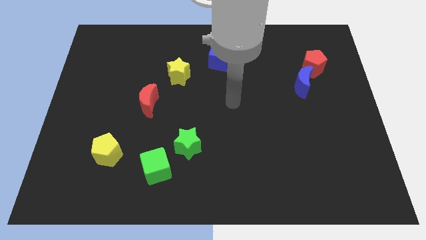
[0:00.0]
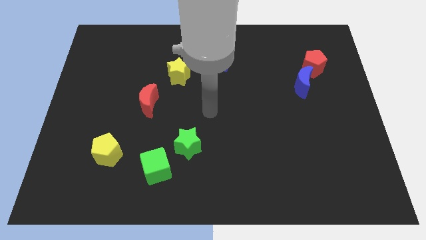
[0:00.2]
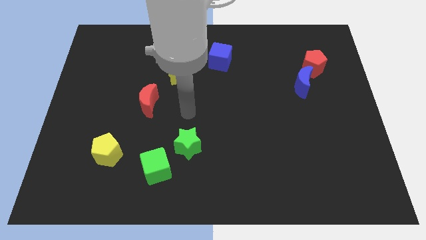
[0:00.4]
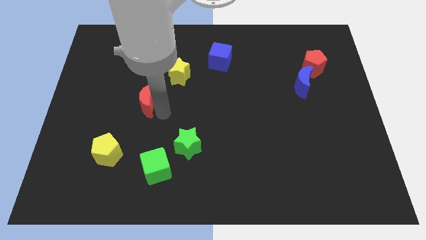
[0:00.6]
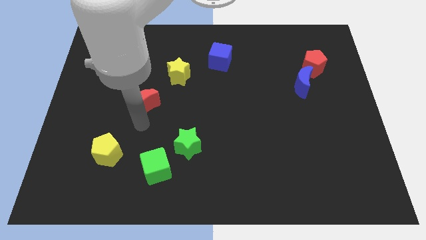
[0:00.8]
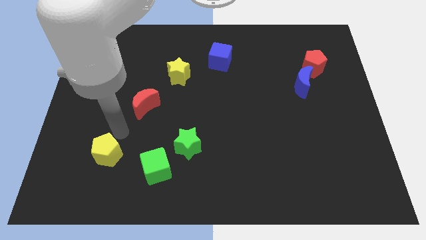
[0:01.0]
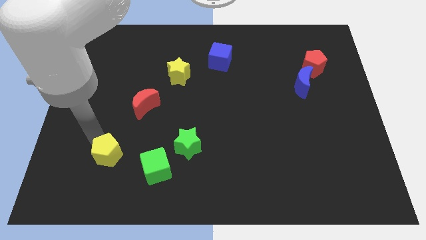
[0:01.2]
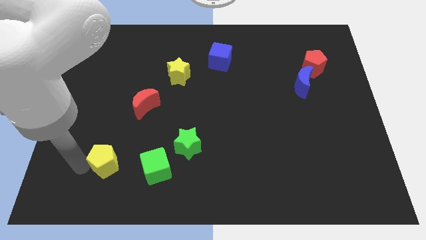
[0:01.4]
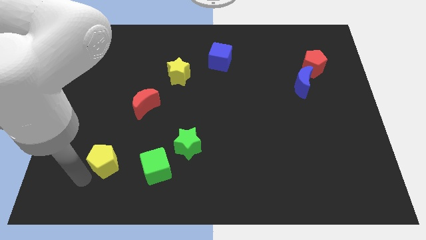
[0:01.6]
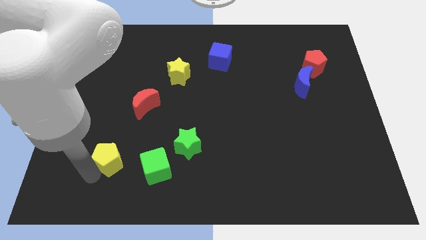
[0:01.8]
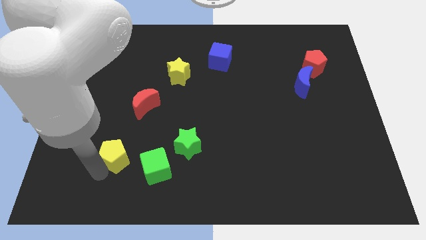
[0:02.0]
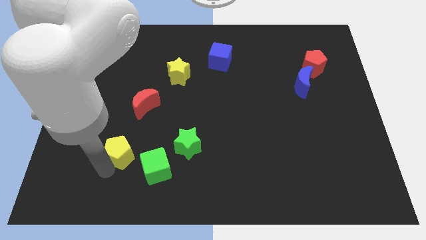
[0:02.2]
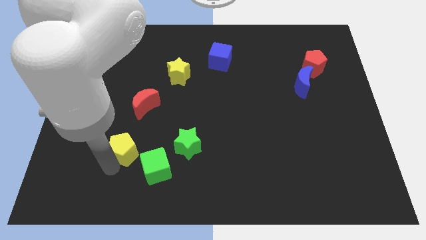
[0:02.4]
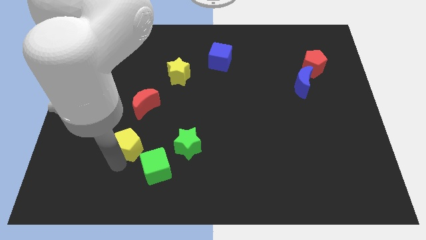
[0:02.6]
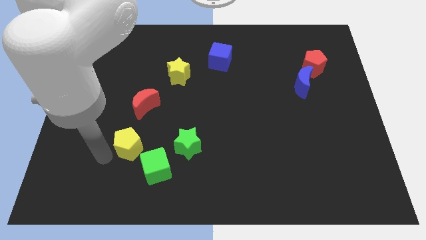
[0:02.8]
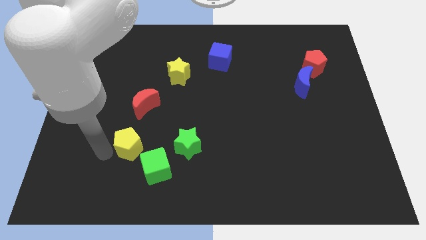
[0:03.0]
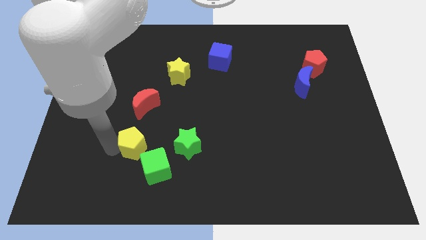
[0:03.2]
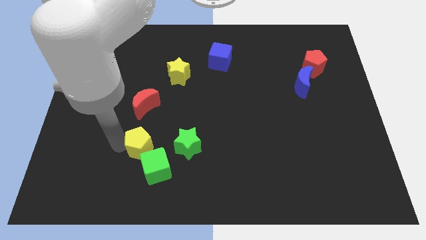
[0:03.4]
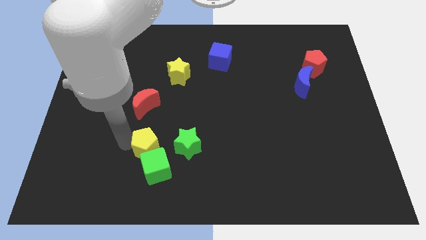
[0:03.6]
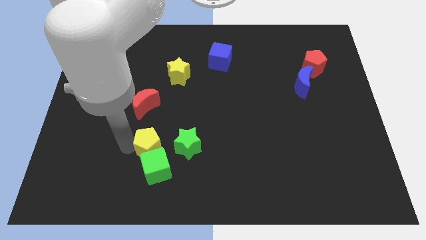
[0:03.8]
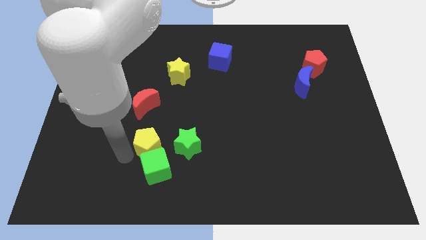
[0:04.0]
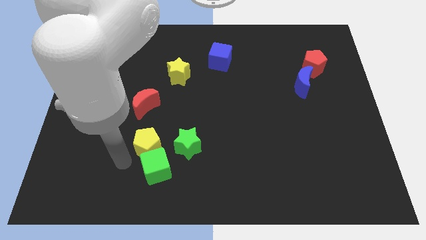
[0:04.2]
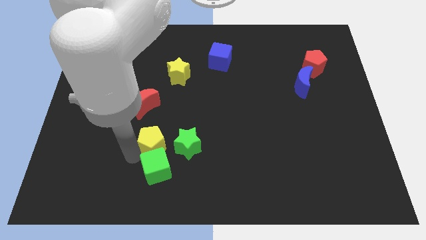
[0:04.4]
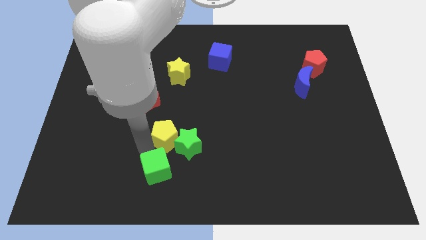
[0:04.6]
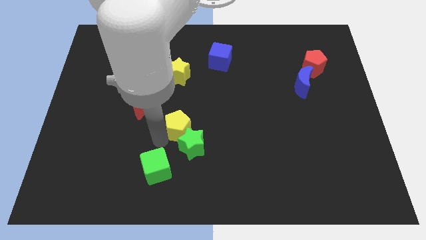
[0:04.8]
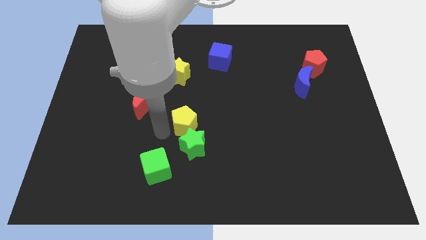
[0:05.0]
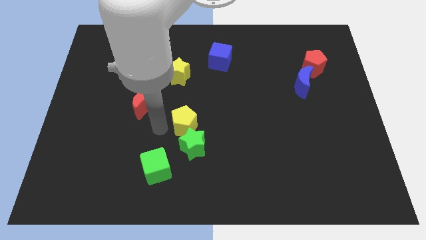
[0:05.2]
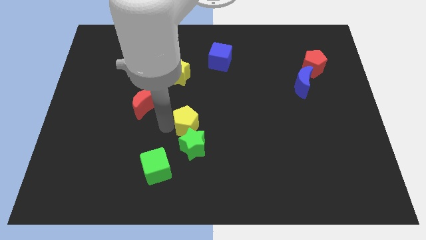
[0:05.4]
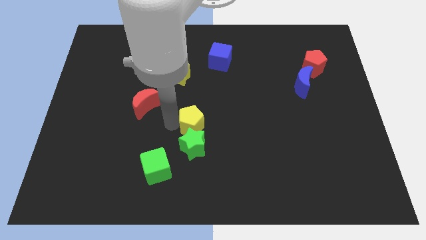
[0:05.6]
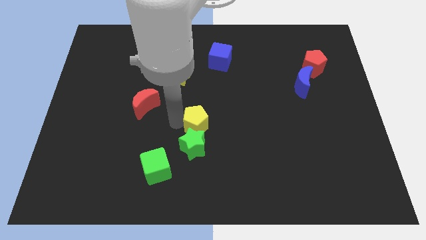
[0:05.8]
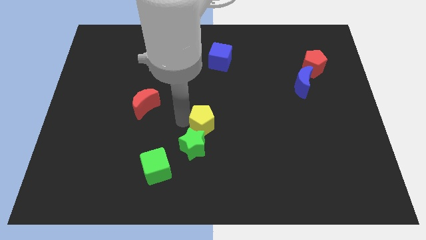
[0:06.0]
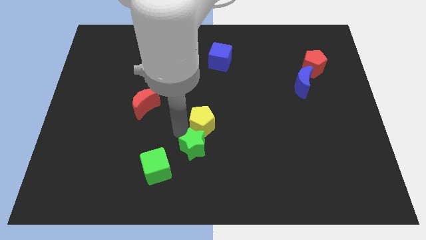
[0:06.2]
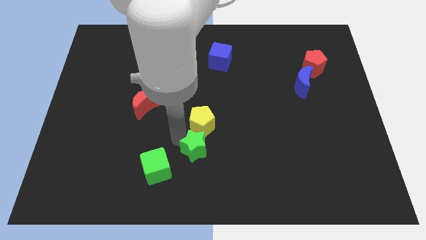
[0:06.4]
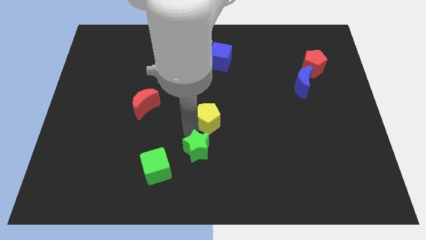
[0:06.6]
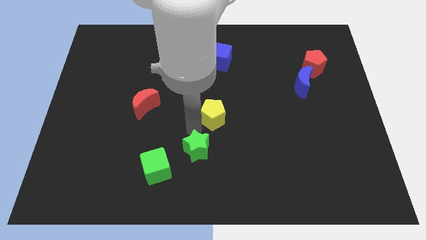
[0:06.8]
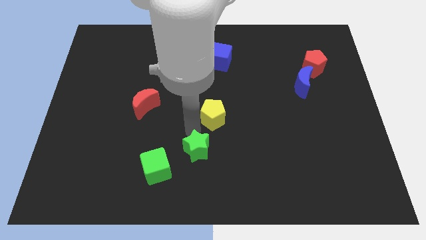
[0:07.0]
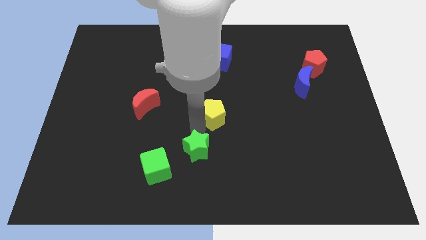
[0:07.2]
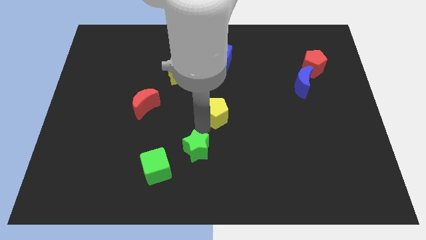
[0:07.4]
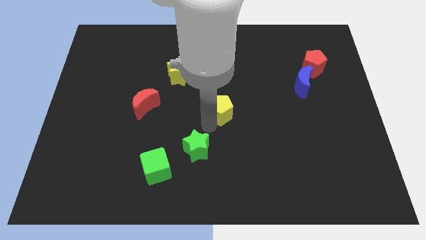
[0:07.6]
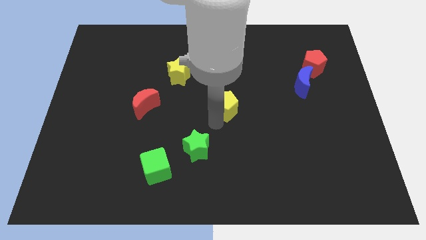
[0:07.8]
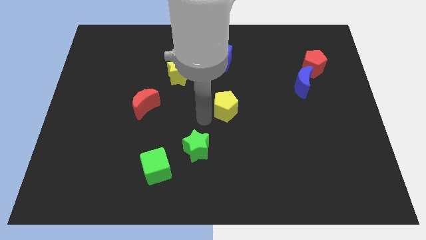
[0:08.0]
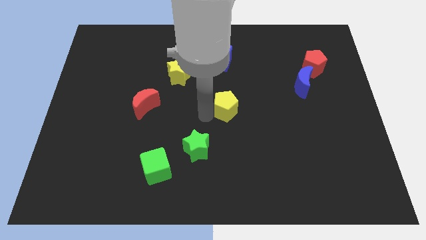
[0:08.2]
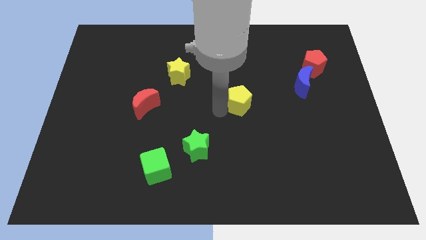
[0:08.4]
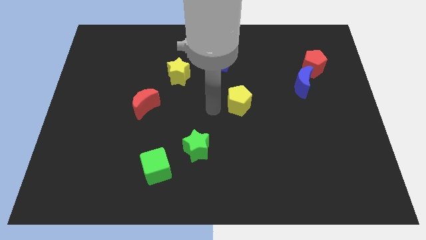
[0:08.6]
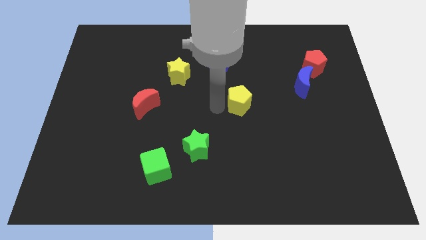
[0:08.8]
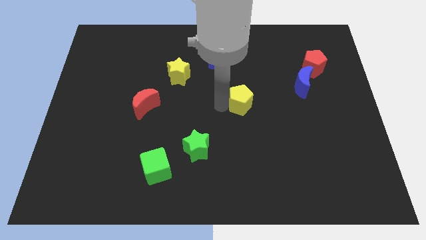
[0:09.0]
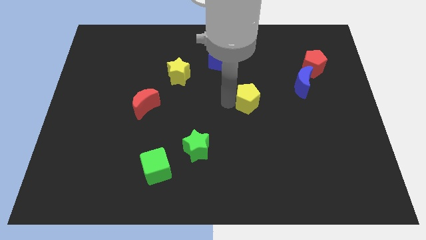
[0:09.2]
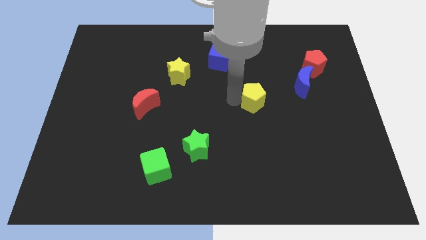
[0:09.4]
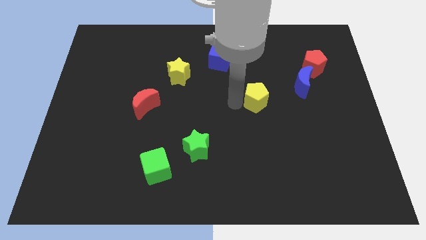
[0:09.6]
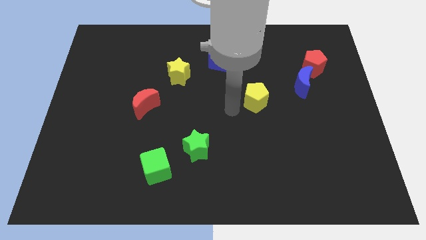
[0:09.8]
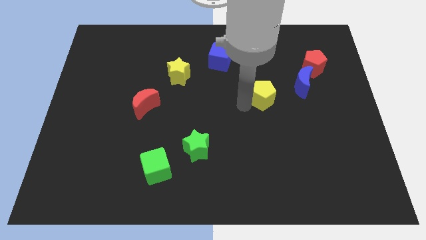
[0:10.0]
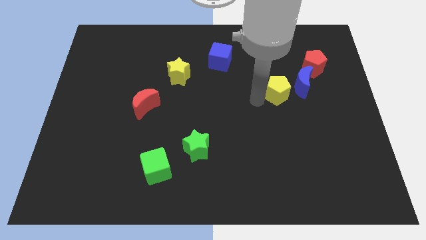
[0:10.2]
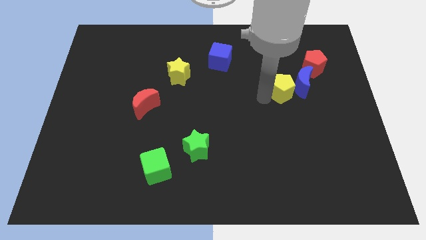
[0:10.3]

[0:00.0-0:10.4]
put the yellow pentagon close to the blue moon

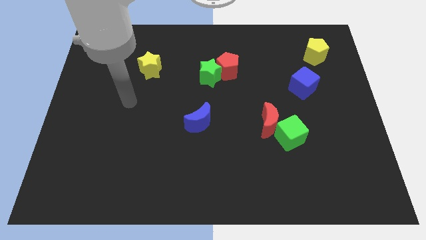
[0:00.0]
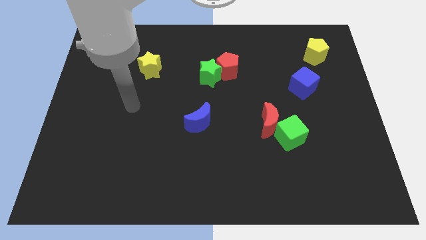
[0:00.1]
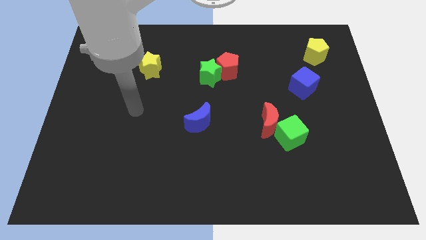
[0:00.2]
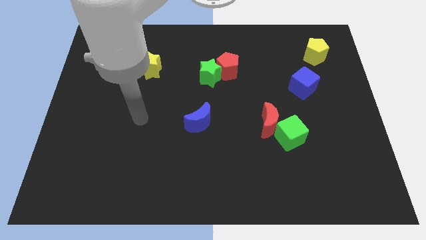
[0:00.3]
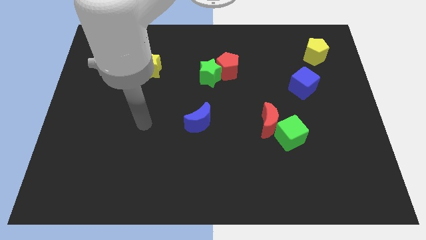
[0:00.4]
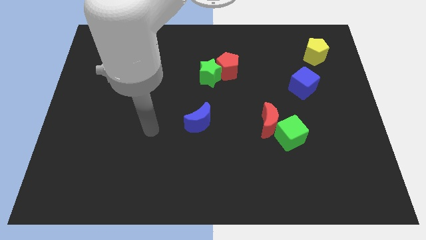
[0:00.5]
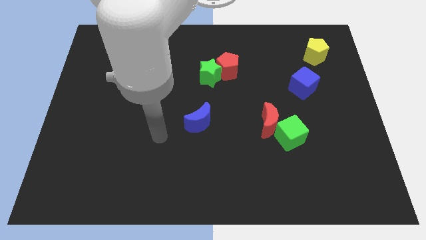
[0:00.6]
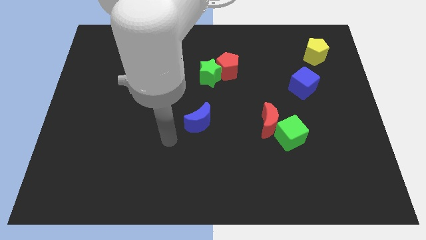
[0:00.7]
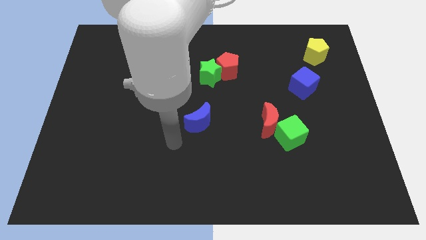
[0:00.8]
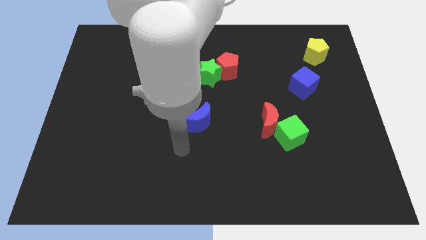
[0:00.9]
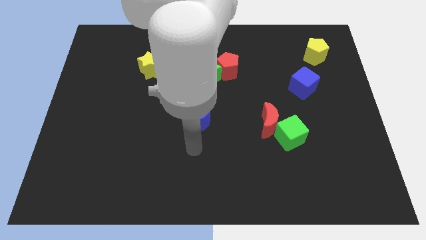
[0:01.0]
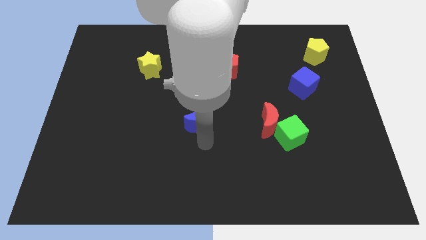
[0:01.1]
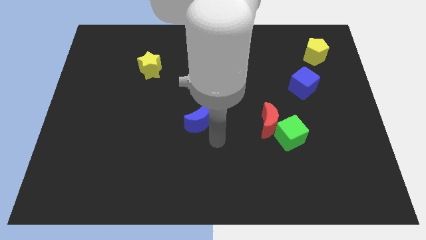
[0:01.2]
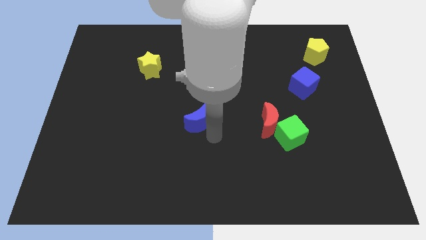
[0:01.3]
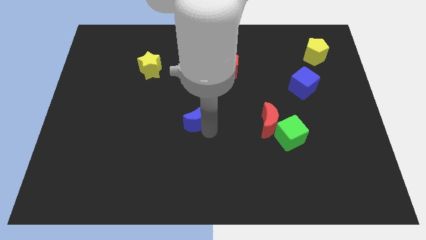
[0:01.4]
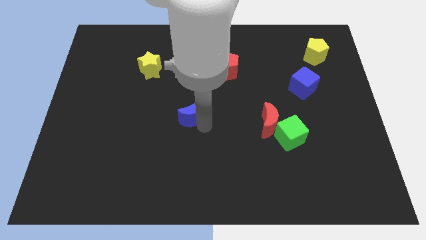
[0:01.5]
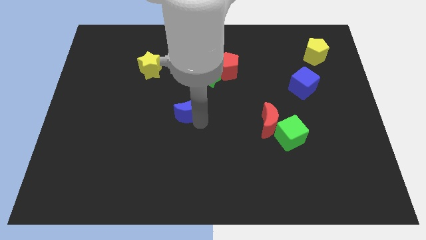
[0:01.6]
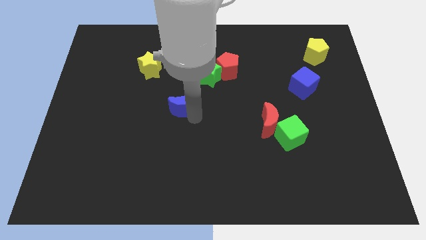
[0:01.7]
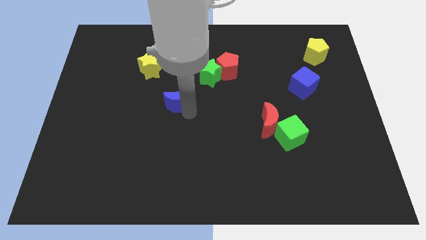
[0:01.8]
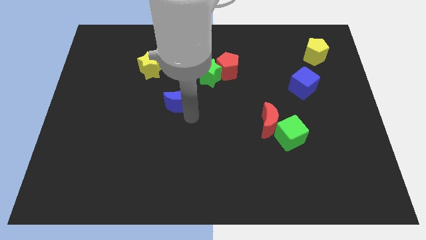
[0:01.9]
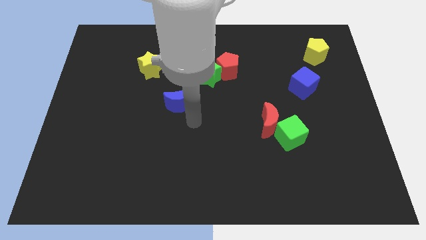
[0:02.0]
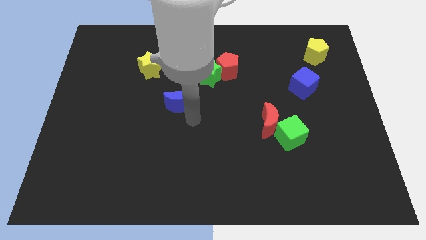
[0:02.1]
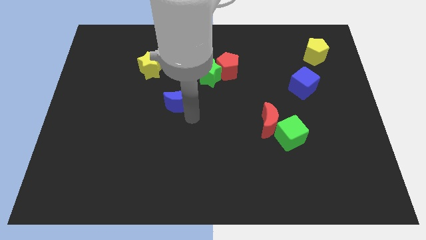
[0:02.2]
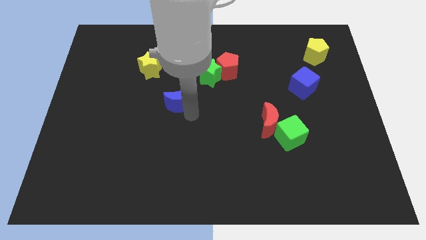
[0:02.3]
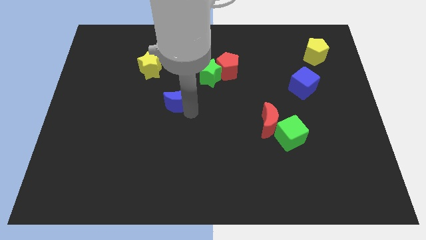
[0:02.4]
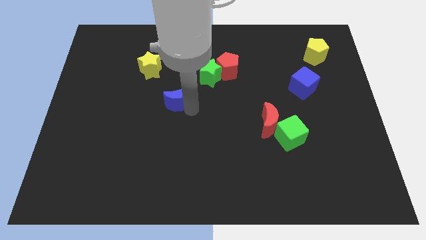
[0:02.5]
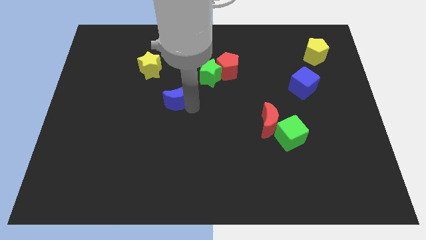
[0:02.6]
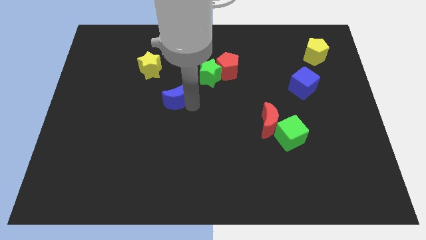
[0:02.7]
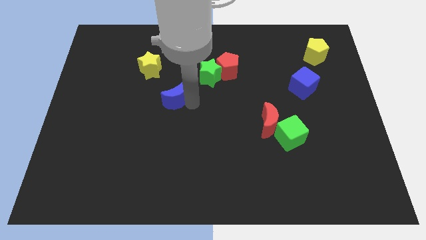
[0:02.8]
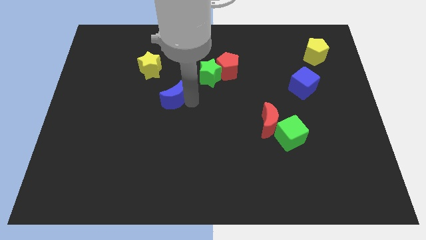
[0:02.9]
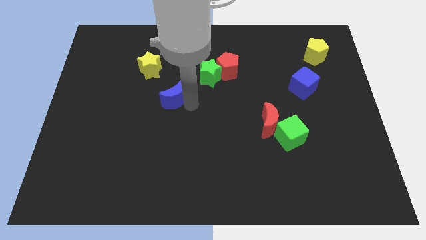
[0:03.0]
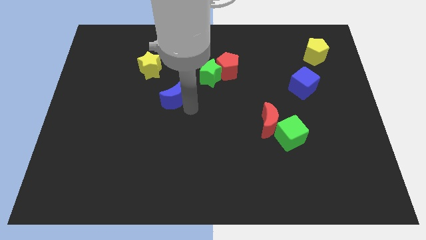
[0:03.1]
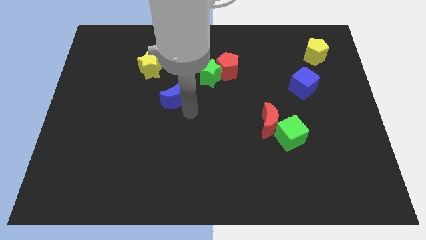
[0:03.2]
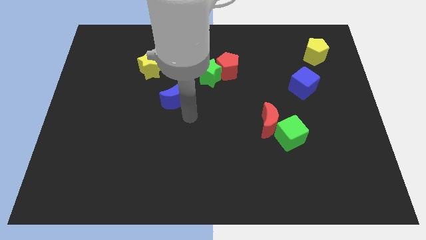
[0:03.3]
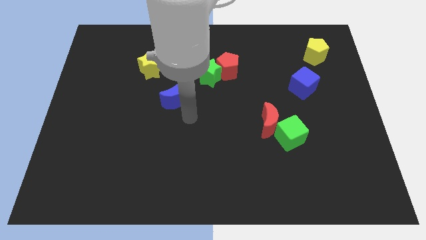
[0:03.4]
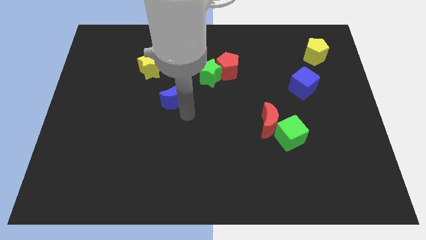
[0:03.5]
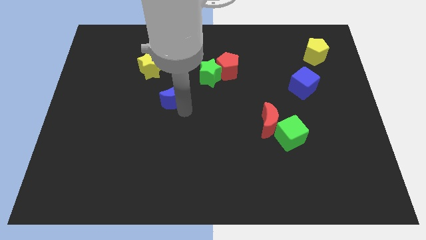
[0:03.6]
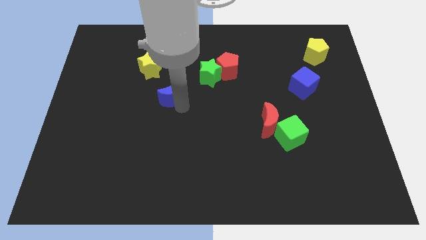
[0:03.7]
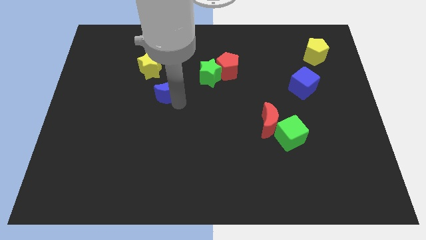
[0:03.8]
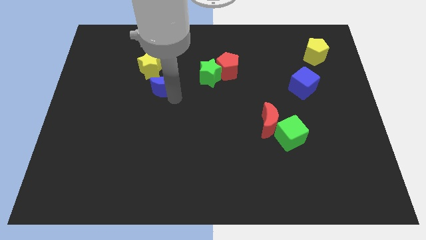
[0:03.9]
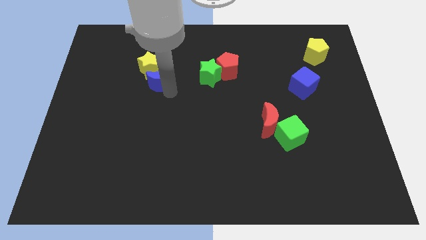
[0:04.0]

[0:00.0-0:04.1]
slide the blue moon close to the yellow star
